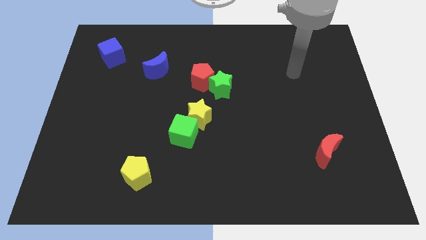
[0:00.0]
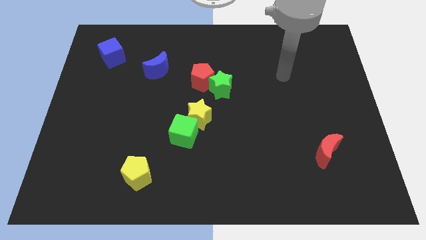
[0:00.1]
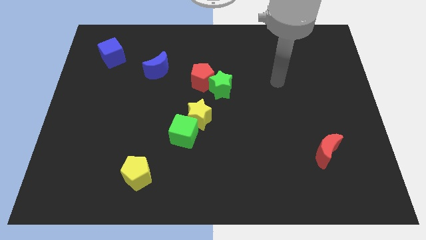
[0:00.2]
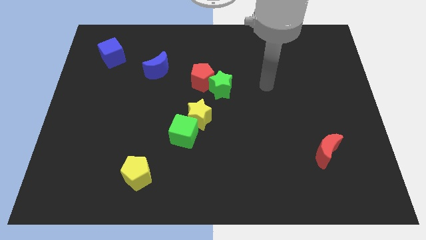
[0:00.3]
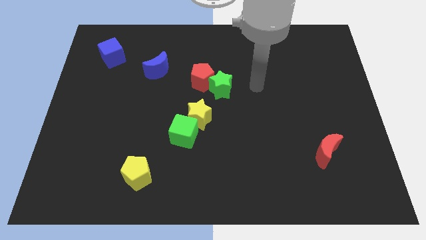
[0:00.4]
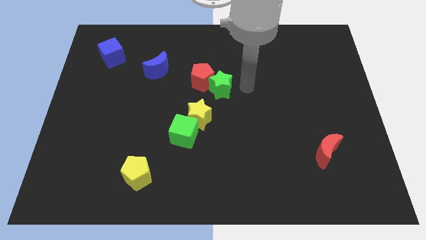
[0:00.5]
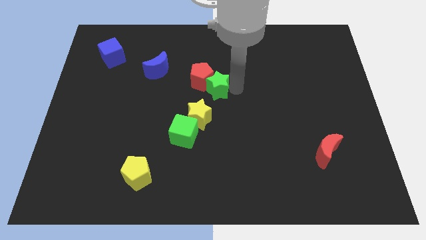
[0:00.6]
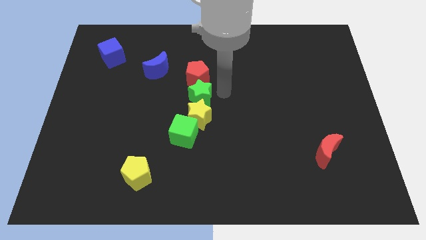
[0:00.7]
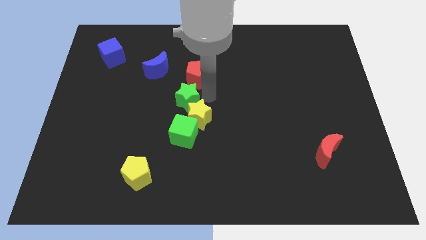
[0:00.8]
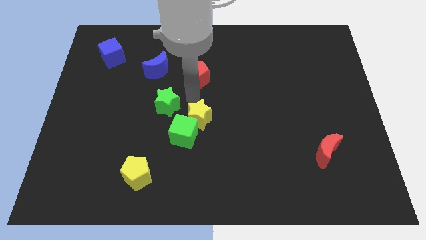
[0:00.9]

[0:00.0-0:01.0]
separate the red pentagon from the green star

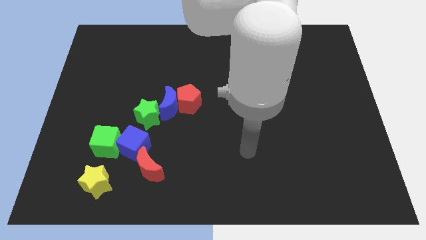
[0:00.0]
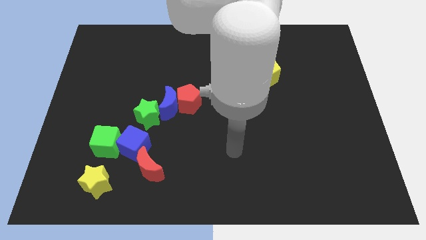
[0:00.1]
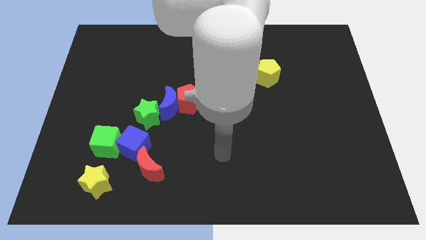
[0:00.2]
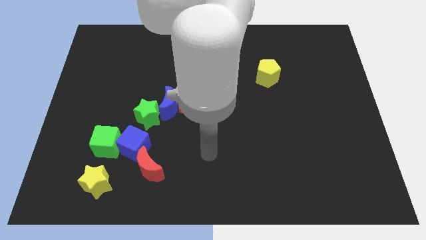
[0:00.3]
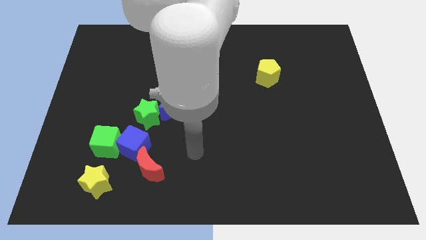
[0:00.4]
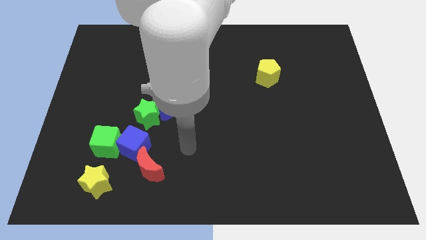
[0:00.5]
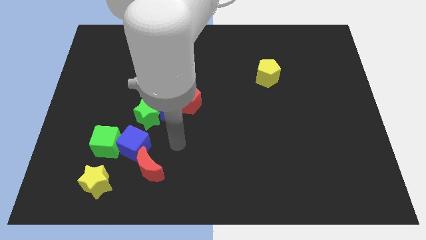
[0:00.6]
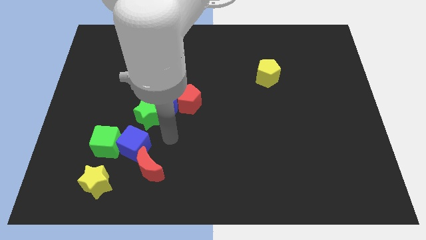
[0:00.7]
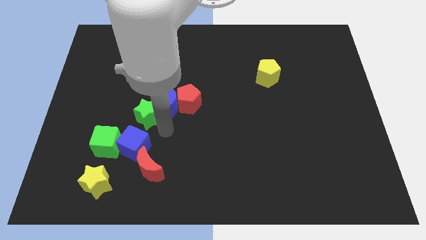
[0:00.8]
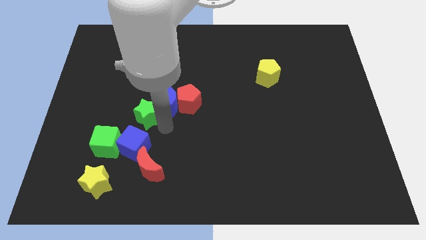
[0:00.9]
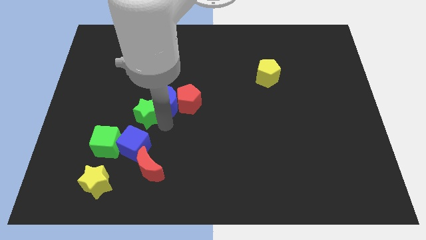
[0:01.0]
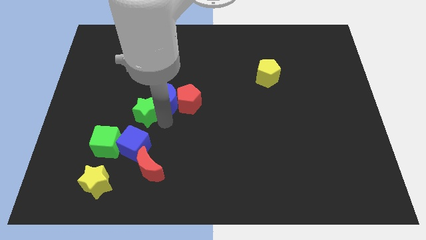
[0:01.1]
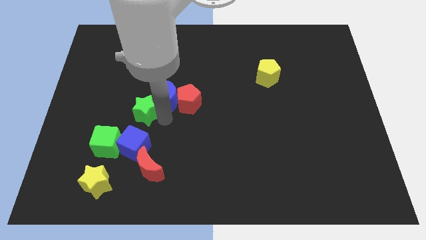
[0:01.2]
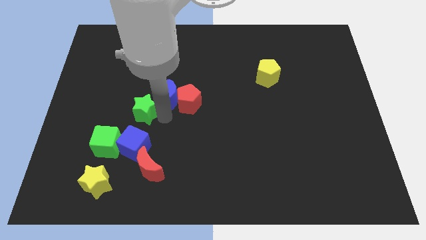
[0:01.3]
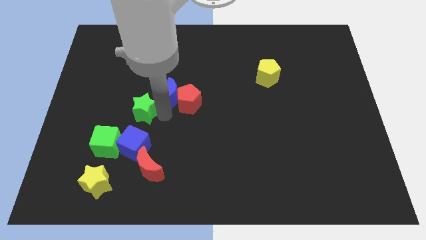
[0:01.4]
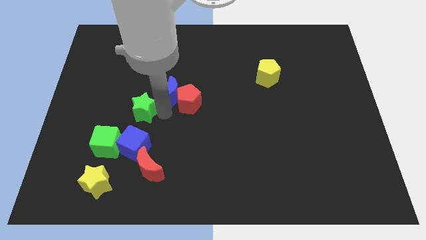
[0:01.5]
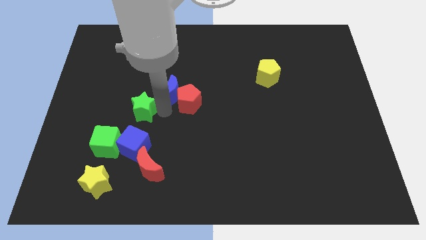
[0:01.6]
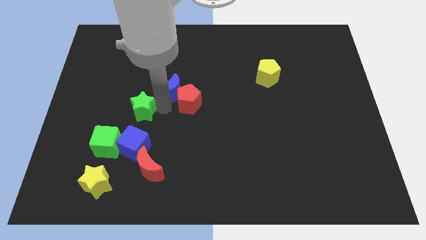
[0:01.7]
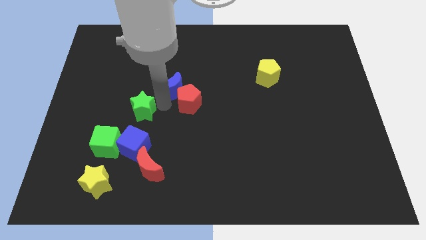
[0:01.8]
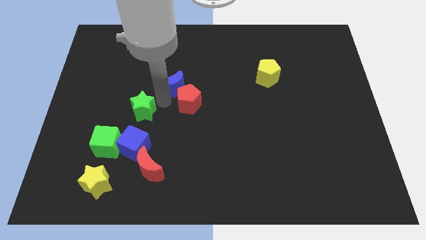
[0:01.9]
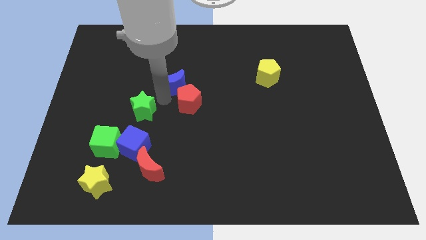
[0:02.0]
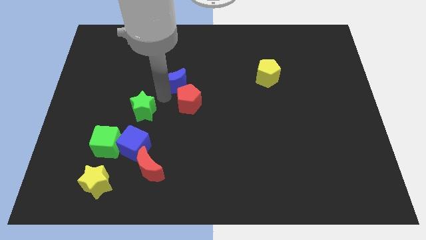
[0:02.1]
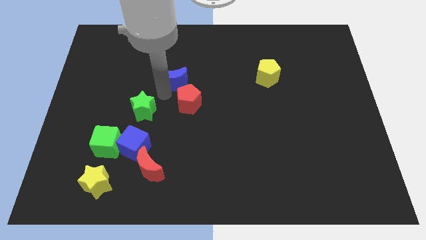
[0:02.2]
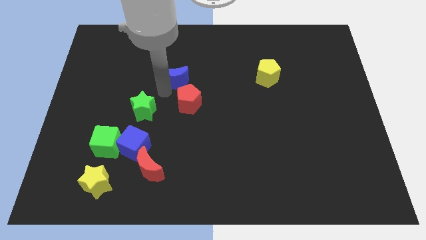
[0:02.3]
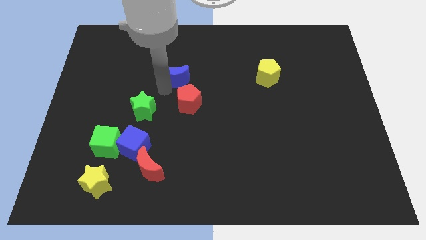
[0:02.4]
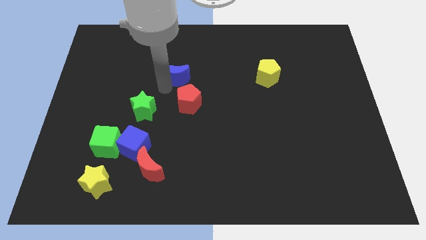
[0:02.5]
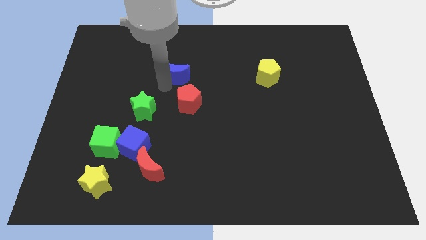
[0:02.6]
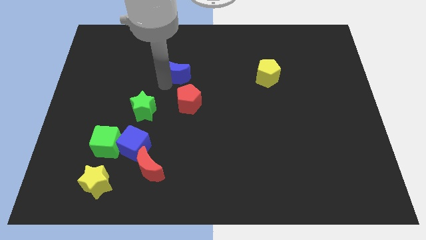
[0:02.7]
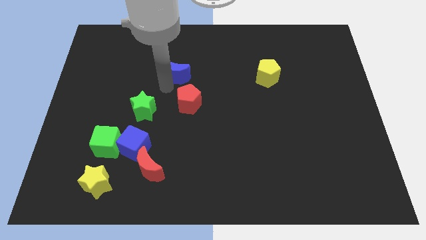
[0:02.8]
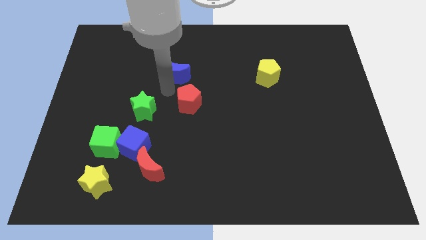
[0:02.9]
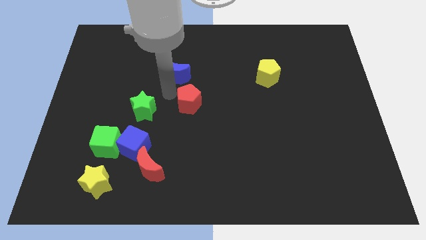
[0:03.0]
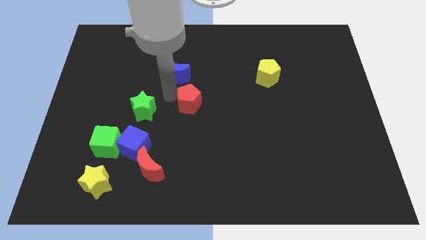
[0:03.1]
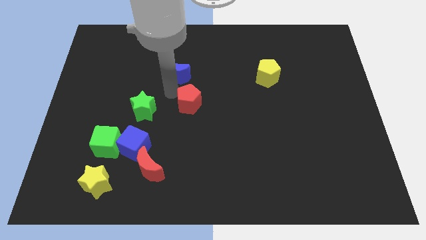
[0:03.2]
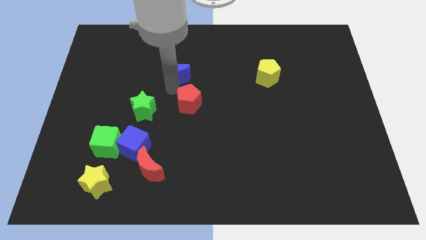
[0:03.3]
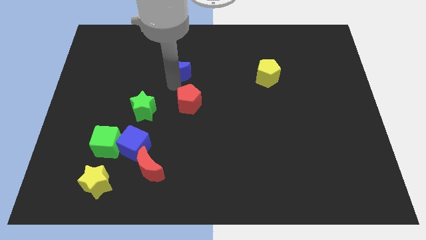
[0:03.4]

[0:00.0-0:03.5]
pull the blue moon apart from the red pentagon and green star

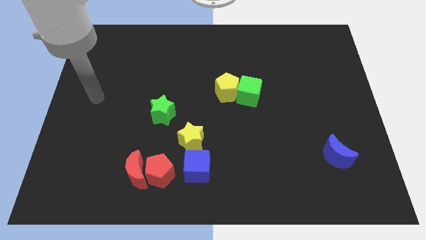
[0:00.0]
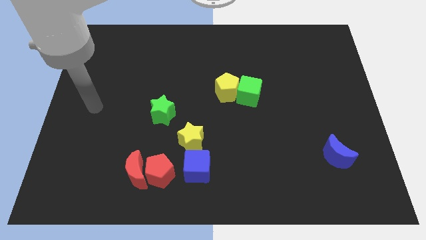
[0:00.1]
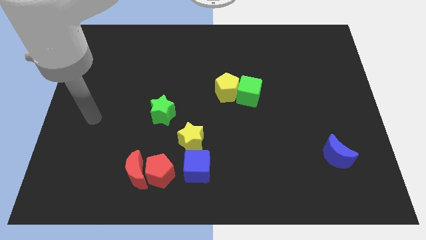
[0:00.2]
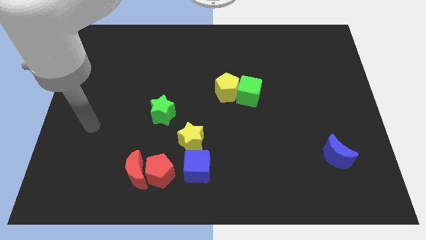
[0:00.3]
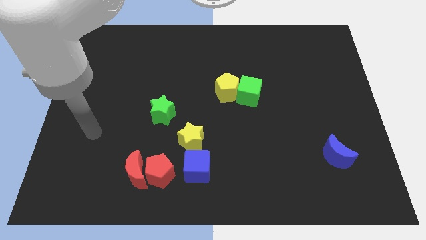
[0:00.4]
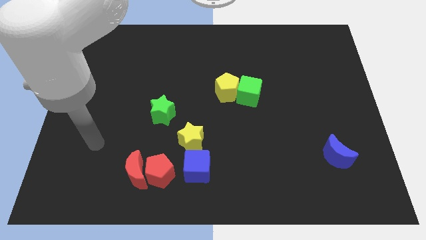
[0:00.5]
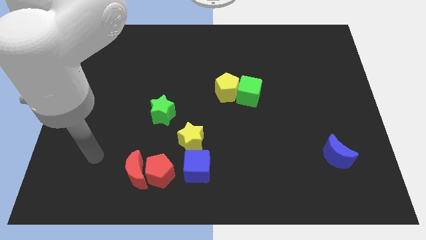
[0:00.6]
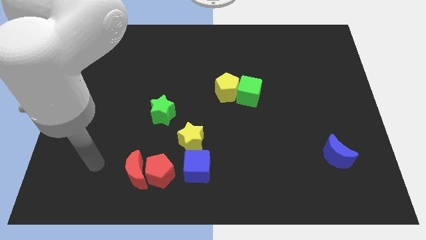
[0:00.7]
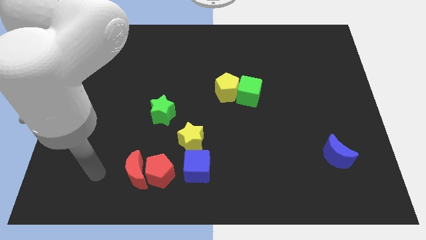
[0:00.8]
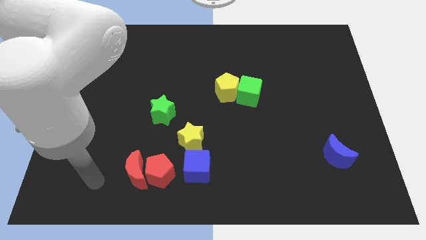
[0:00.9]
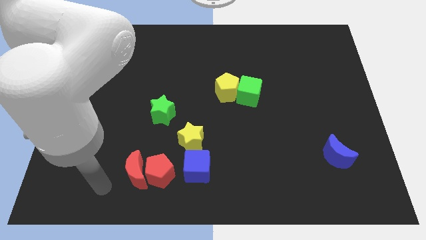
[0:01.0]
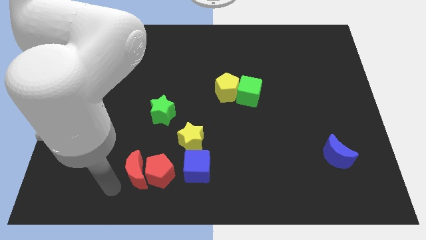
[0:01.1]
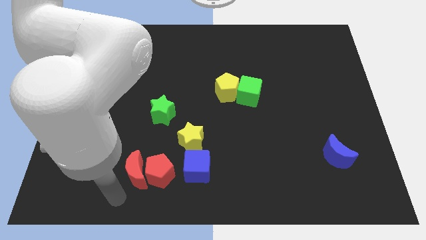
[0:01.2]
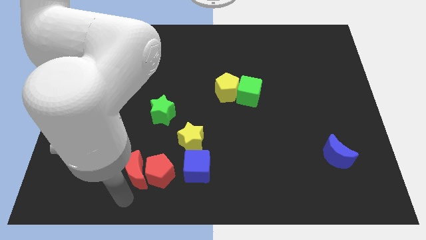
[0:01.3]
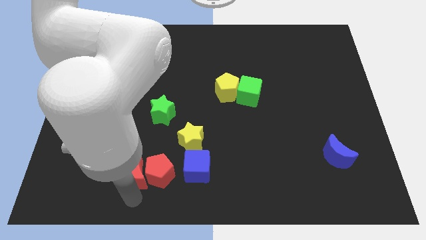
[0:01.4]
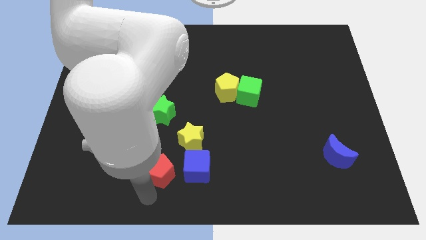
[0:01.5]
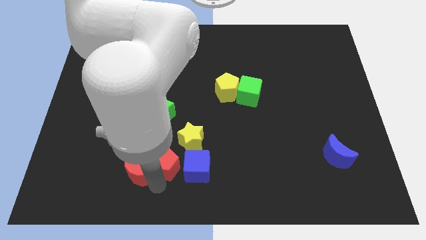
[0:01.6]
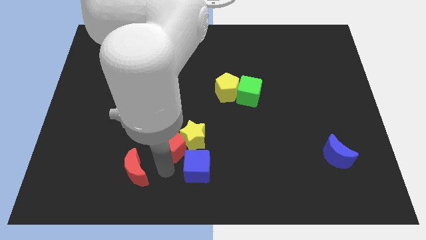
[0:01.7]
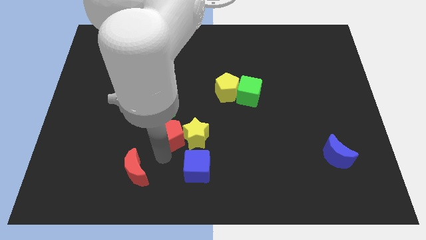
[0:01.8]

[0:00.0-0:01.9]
move the red moon away from the red pentagon

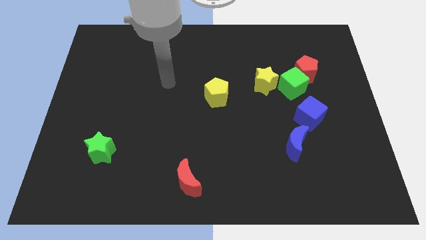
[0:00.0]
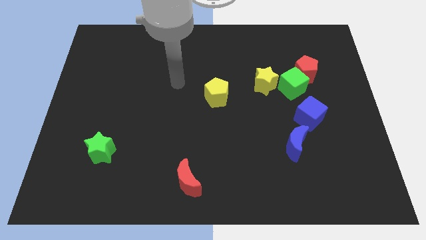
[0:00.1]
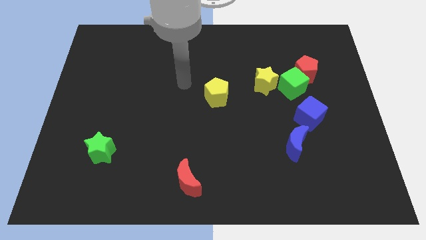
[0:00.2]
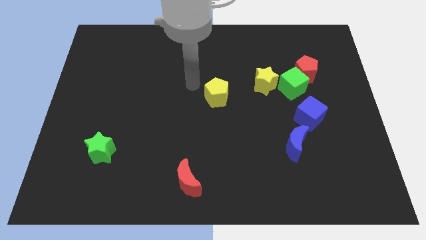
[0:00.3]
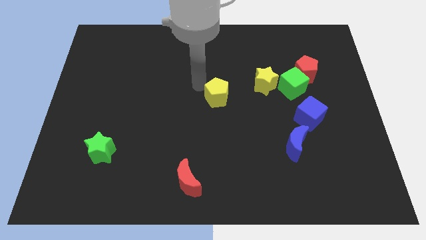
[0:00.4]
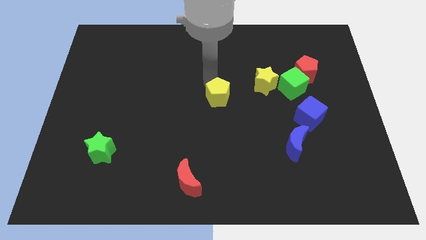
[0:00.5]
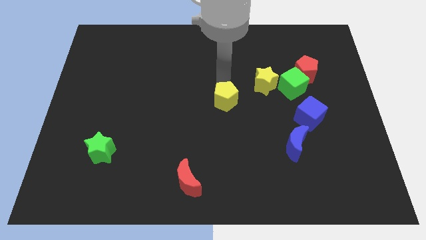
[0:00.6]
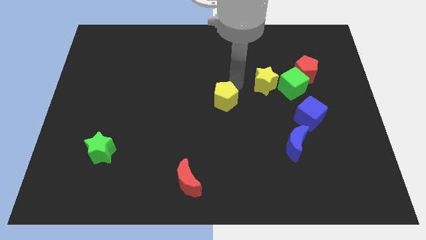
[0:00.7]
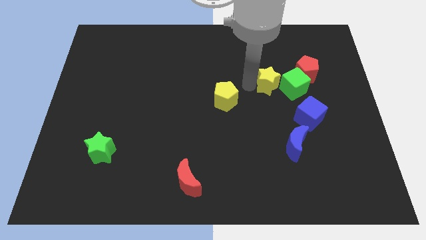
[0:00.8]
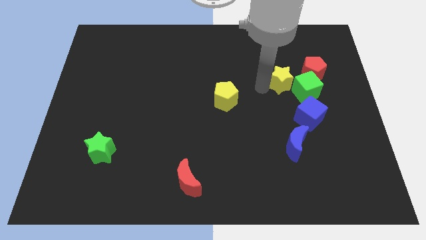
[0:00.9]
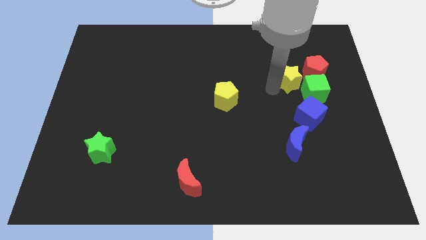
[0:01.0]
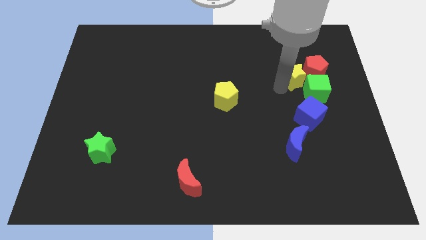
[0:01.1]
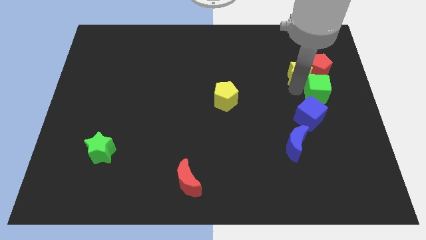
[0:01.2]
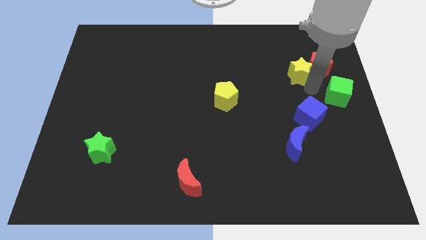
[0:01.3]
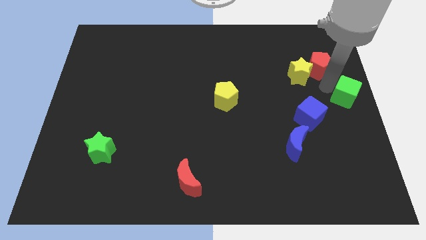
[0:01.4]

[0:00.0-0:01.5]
move the red pentagon away from the green cube

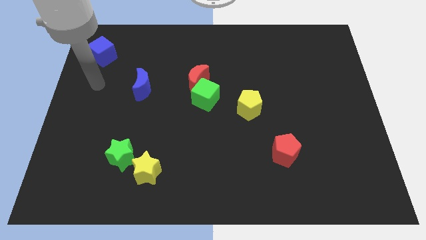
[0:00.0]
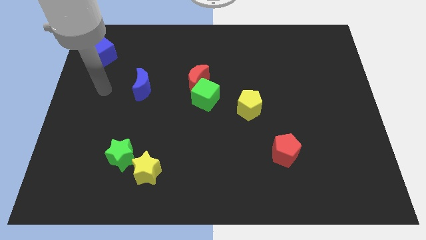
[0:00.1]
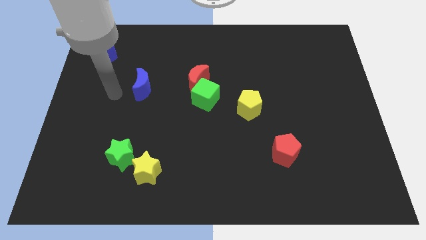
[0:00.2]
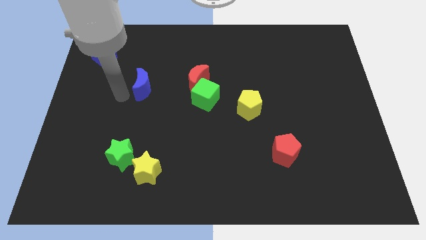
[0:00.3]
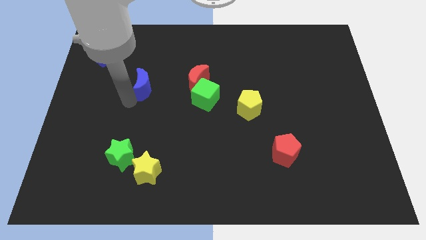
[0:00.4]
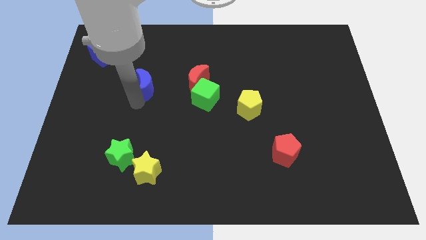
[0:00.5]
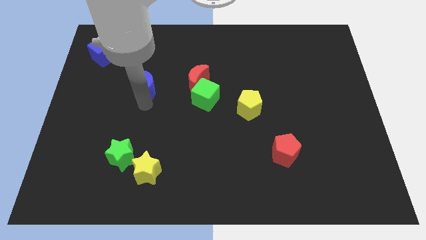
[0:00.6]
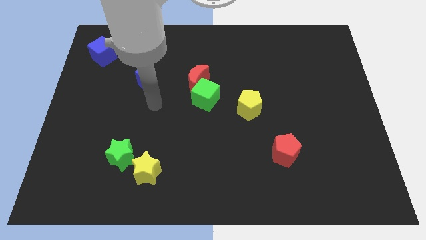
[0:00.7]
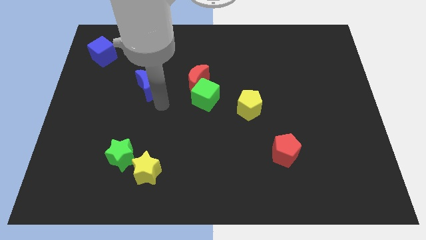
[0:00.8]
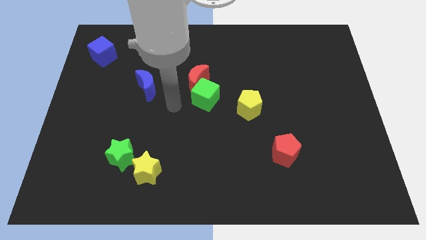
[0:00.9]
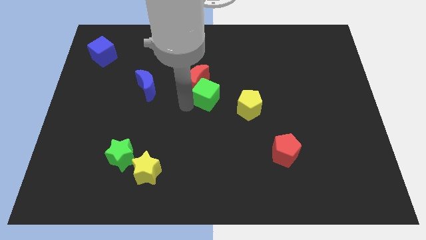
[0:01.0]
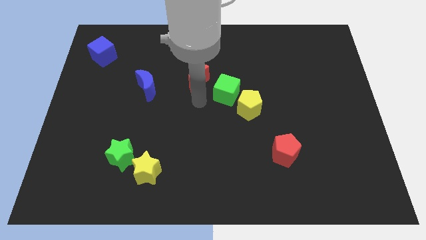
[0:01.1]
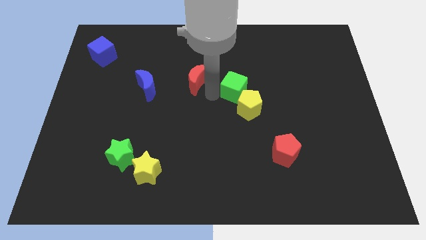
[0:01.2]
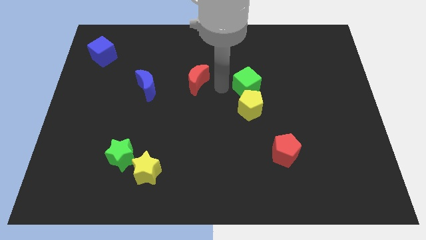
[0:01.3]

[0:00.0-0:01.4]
separate the red moon from the green cube

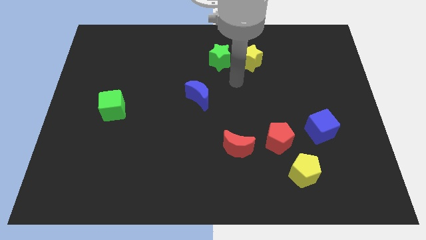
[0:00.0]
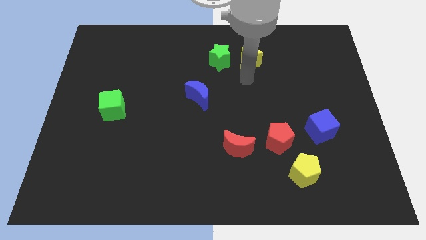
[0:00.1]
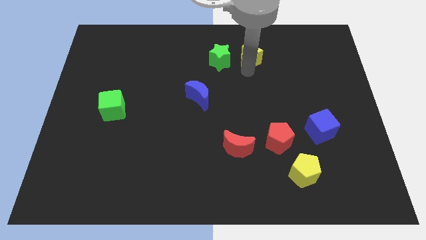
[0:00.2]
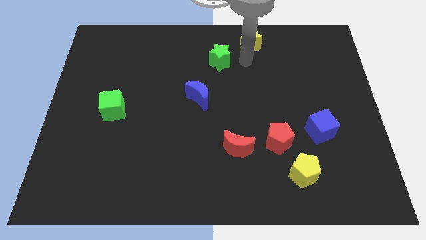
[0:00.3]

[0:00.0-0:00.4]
separate the green star from the yellow star
